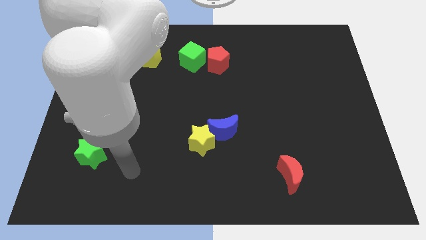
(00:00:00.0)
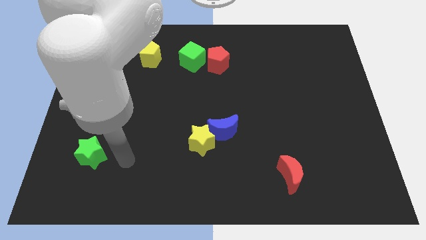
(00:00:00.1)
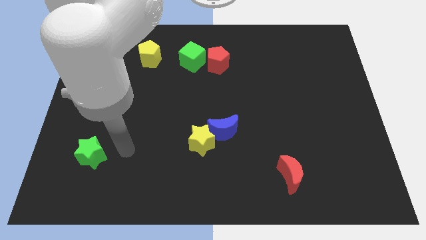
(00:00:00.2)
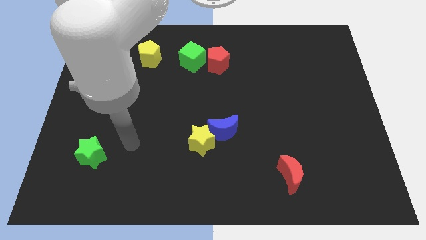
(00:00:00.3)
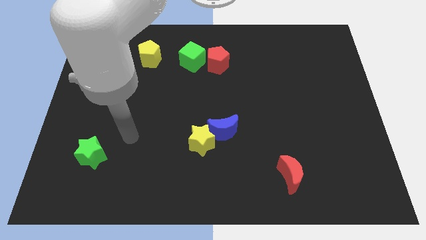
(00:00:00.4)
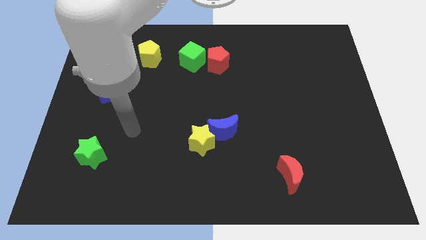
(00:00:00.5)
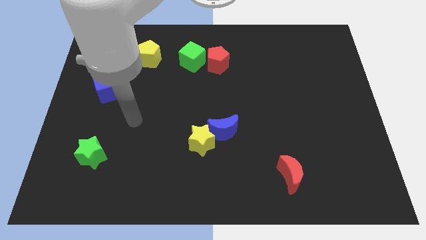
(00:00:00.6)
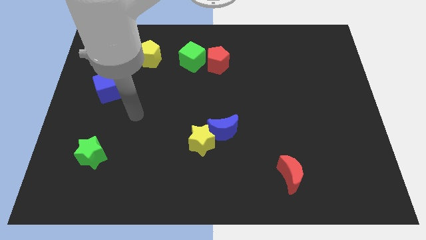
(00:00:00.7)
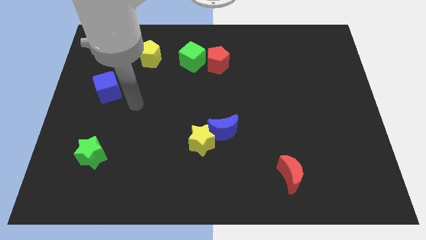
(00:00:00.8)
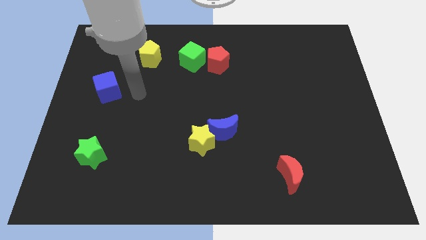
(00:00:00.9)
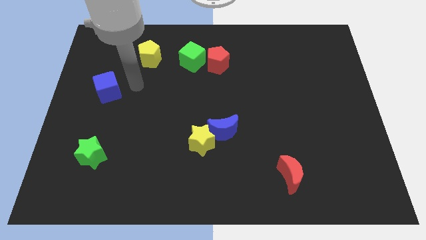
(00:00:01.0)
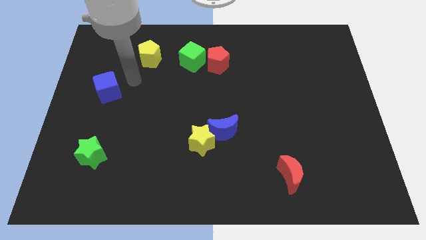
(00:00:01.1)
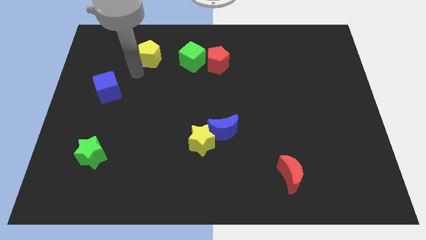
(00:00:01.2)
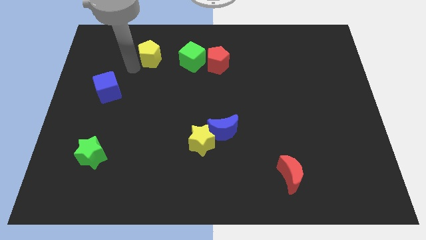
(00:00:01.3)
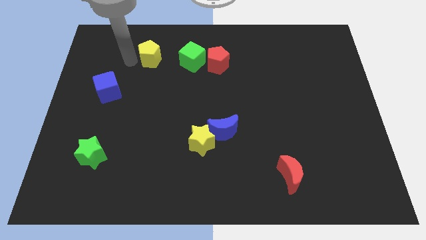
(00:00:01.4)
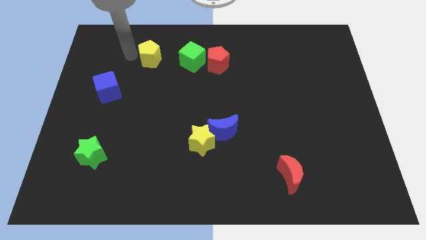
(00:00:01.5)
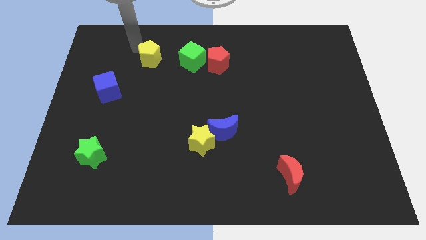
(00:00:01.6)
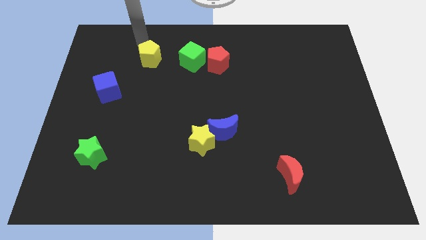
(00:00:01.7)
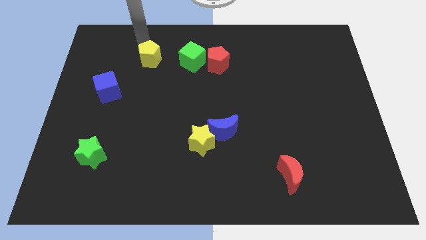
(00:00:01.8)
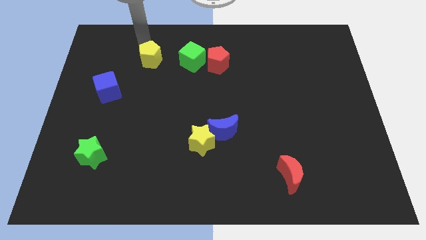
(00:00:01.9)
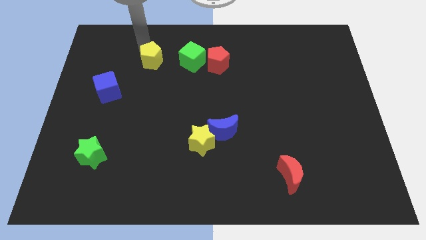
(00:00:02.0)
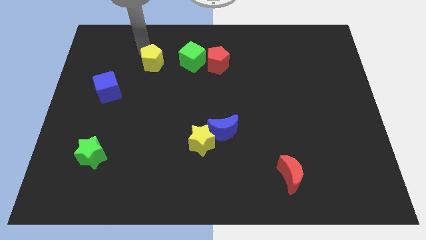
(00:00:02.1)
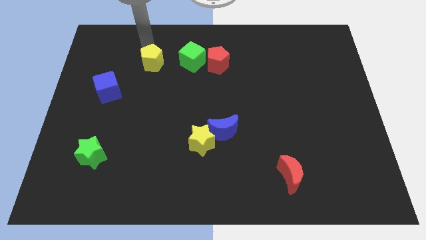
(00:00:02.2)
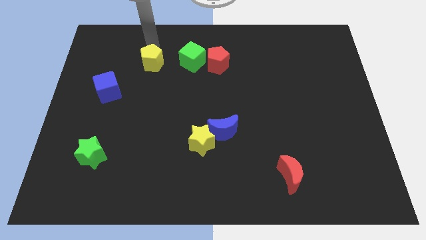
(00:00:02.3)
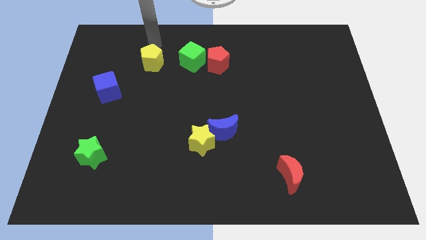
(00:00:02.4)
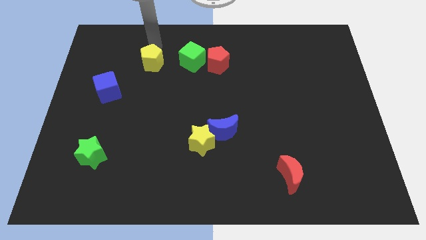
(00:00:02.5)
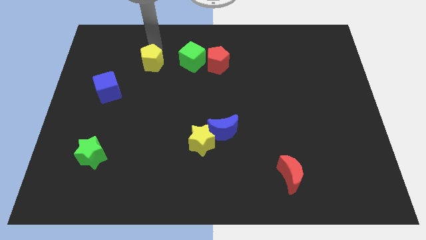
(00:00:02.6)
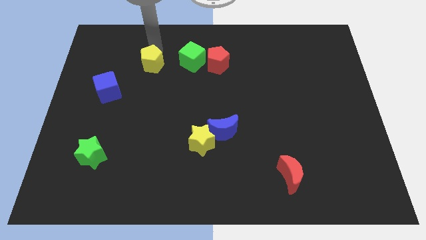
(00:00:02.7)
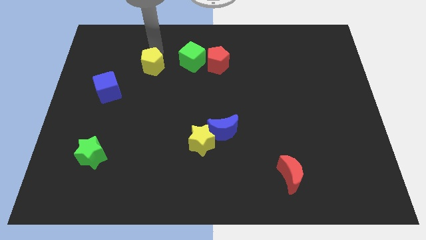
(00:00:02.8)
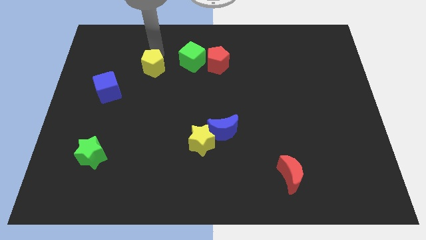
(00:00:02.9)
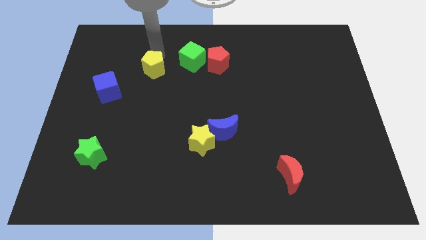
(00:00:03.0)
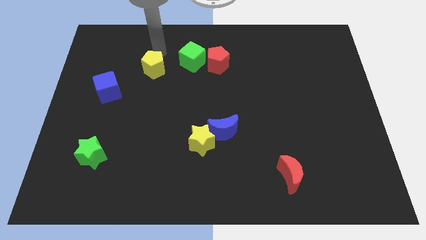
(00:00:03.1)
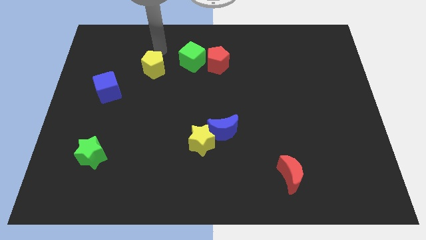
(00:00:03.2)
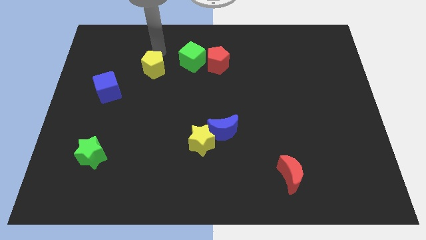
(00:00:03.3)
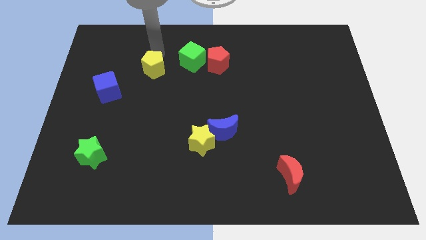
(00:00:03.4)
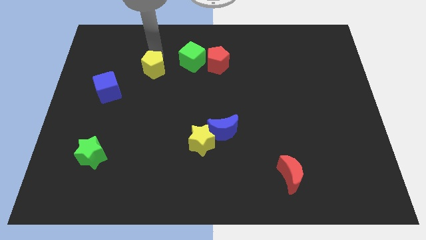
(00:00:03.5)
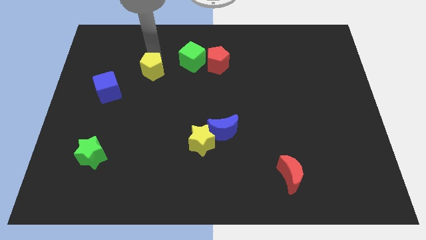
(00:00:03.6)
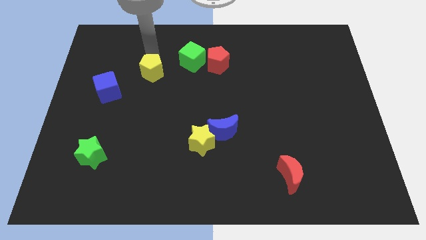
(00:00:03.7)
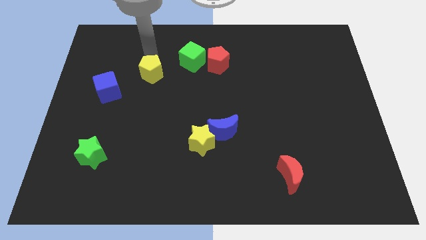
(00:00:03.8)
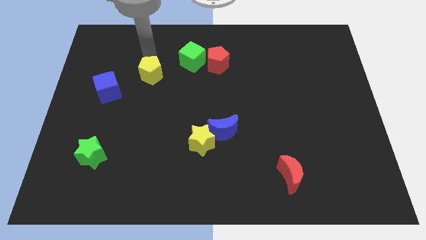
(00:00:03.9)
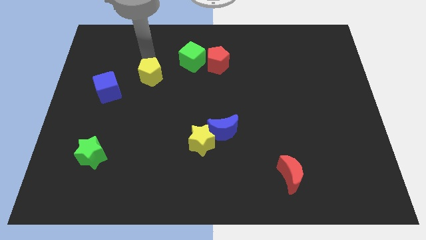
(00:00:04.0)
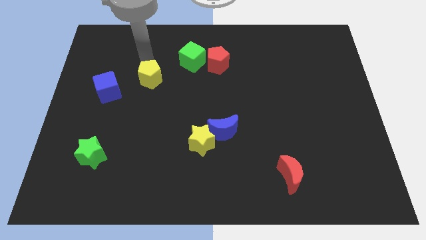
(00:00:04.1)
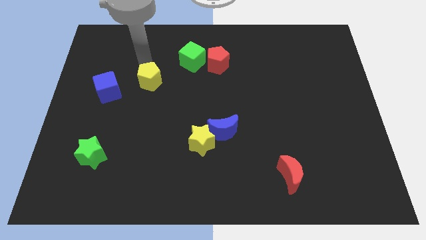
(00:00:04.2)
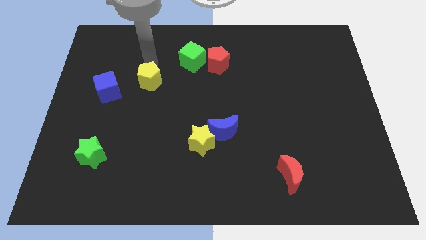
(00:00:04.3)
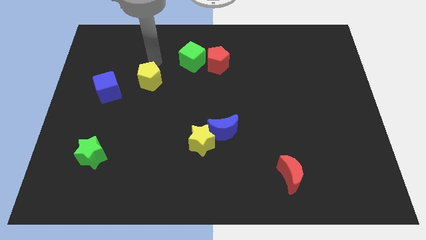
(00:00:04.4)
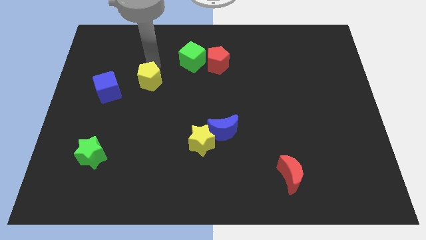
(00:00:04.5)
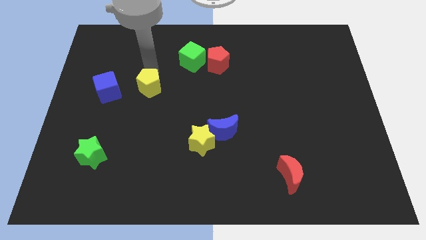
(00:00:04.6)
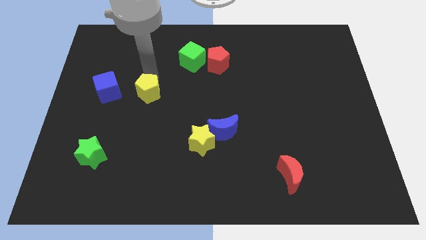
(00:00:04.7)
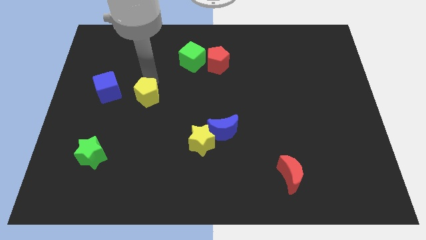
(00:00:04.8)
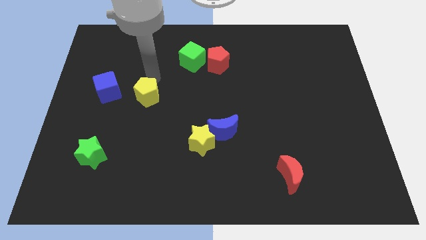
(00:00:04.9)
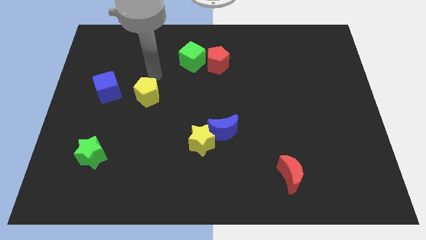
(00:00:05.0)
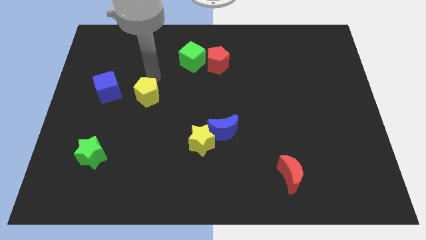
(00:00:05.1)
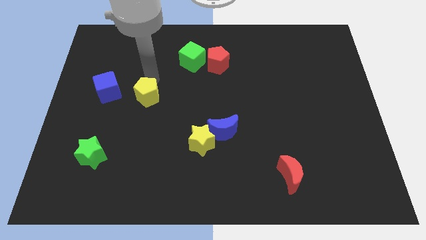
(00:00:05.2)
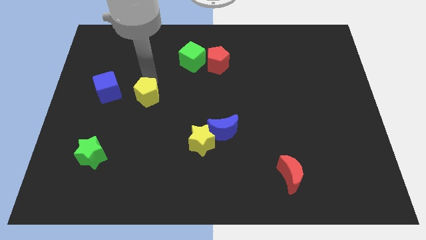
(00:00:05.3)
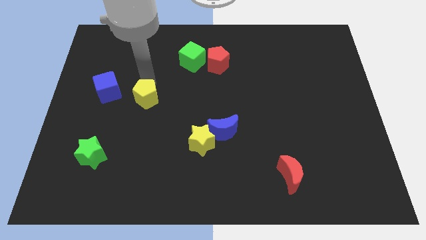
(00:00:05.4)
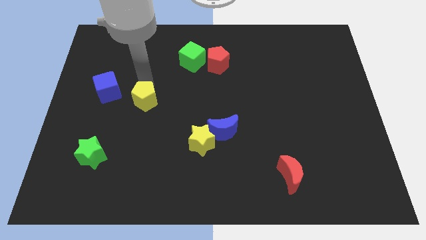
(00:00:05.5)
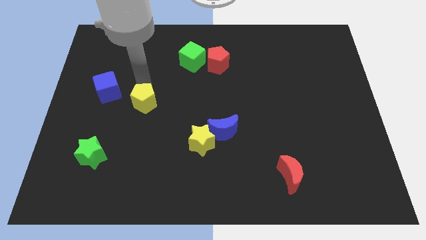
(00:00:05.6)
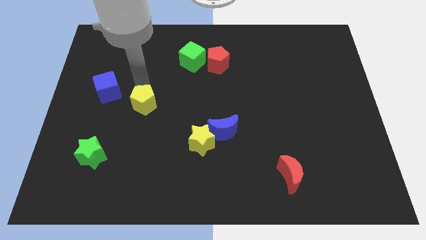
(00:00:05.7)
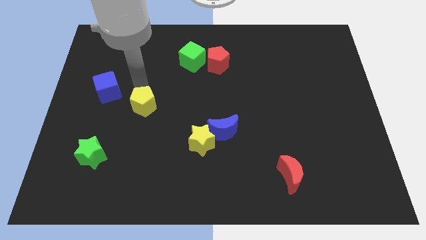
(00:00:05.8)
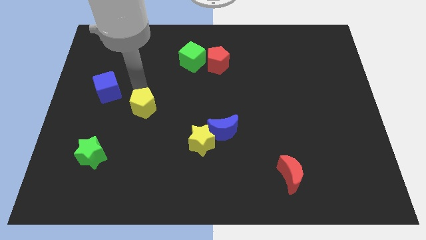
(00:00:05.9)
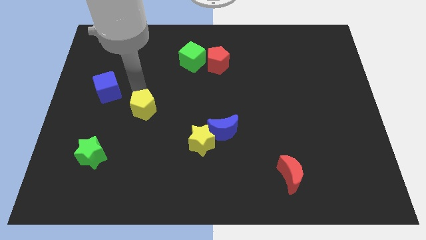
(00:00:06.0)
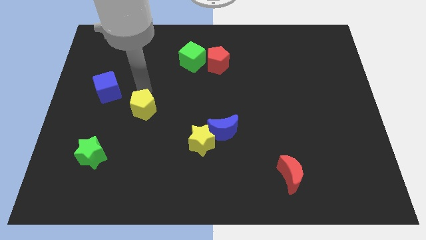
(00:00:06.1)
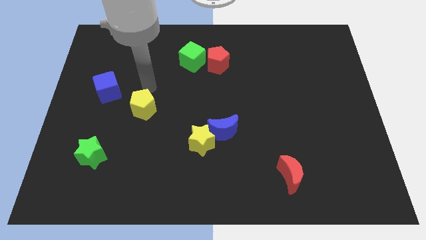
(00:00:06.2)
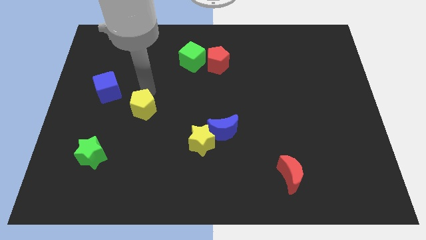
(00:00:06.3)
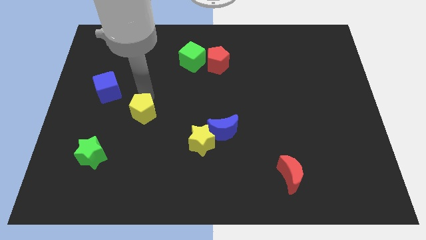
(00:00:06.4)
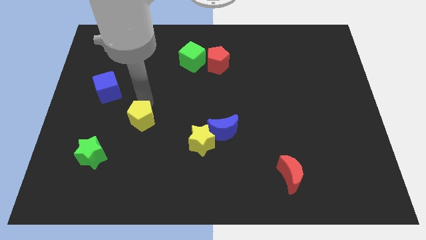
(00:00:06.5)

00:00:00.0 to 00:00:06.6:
slide the yellow pentagon down

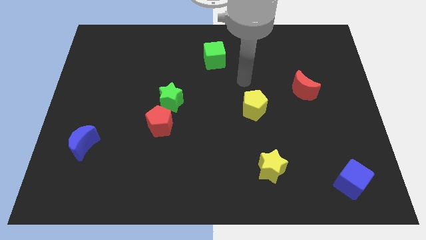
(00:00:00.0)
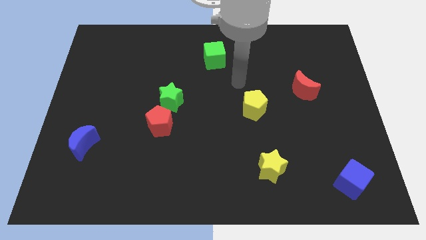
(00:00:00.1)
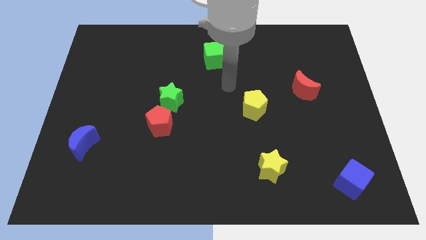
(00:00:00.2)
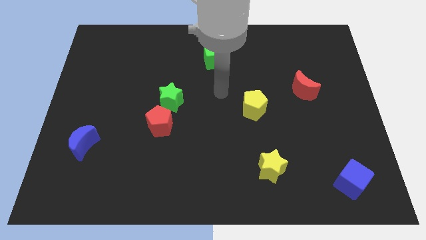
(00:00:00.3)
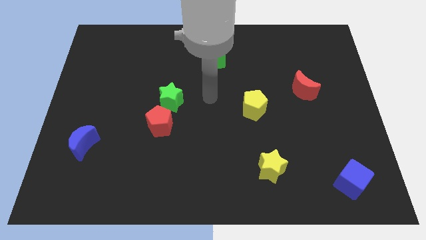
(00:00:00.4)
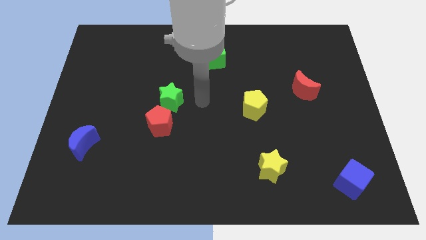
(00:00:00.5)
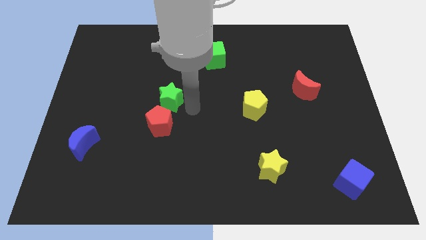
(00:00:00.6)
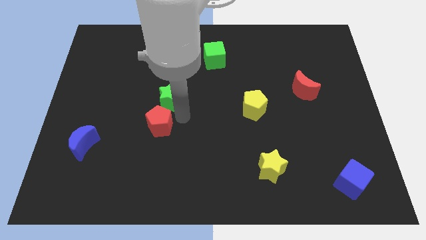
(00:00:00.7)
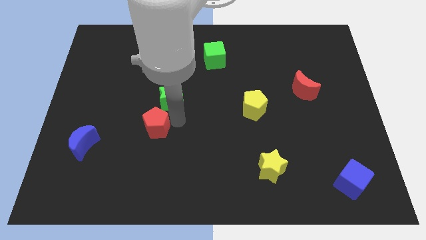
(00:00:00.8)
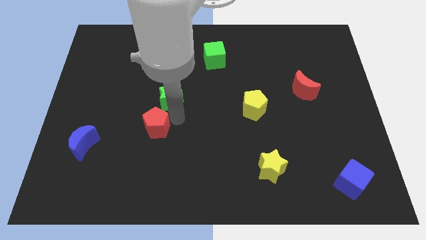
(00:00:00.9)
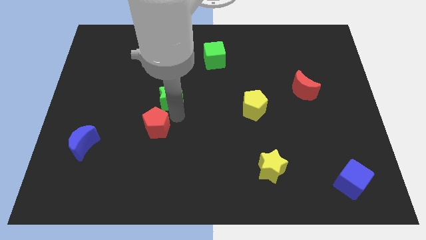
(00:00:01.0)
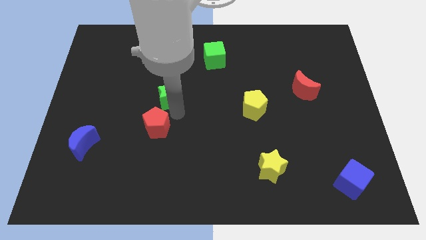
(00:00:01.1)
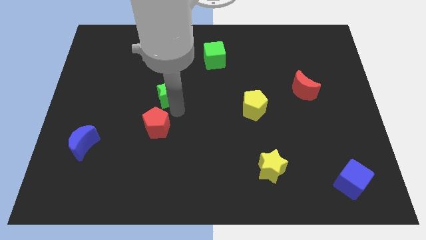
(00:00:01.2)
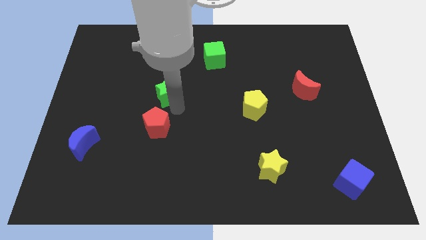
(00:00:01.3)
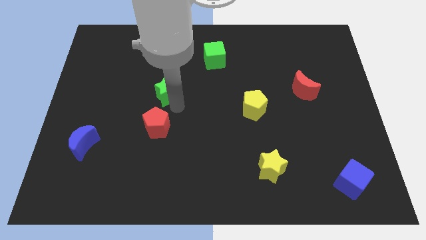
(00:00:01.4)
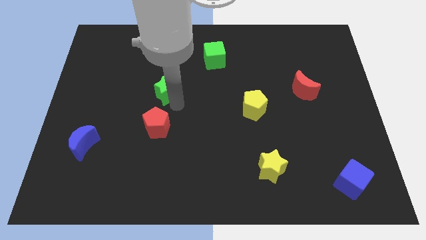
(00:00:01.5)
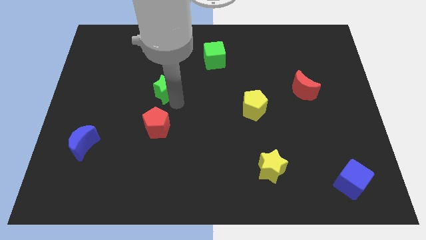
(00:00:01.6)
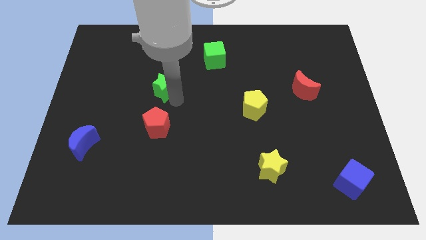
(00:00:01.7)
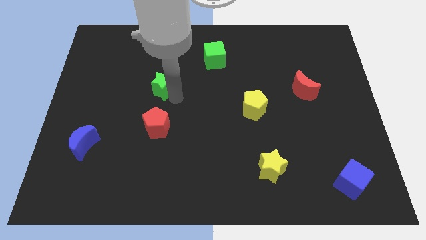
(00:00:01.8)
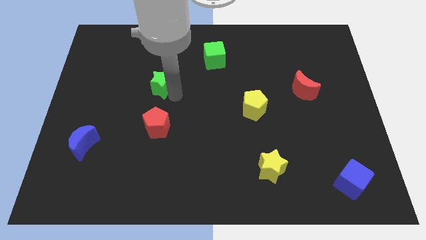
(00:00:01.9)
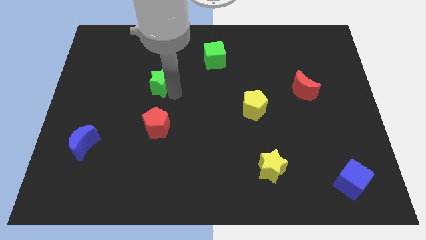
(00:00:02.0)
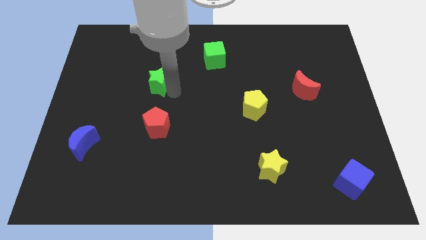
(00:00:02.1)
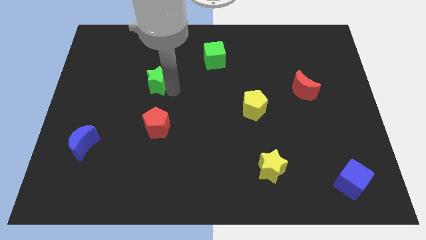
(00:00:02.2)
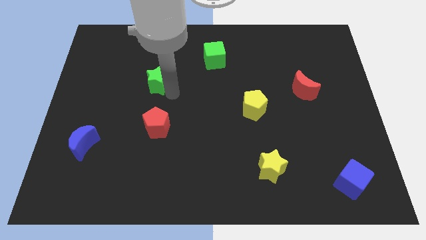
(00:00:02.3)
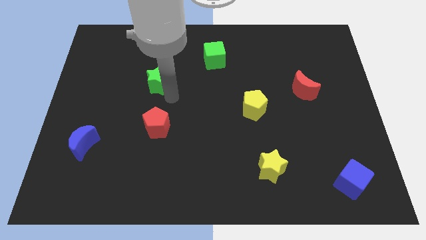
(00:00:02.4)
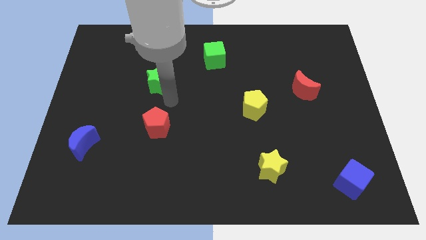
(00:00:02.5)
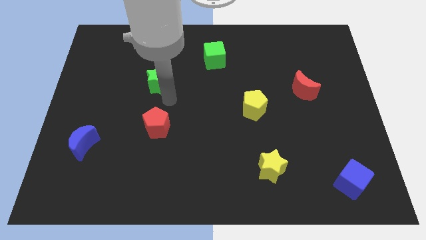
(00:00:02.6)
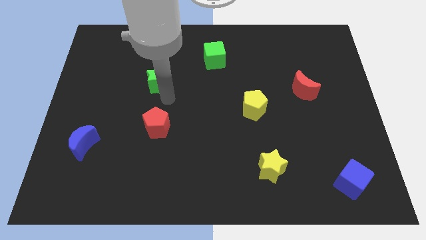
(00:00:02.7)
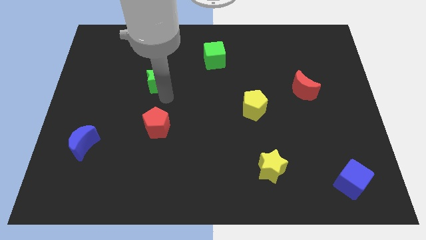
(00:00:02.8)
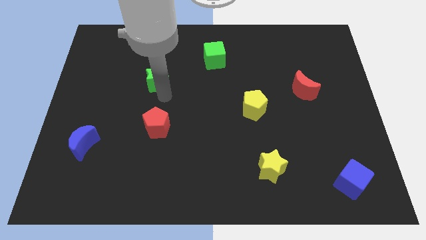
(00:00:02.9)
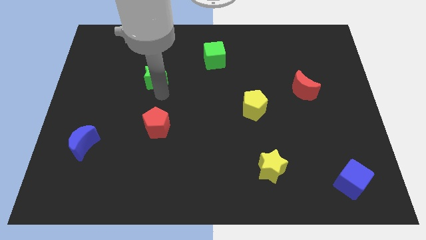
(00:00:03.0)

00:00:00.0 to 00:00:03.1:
slide the green star up and left a little bit
